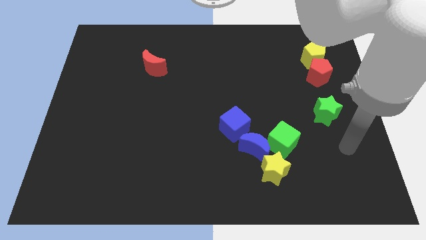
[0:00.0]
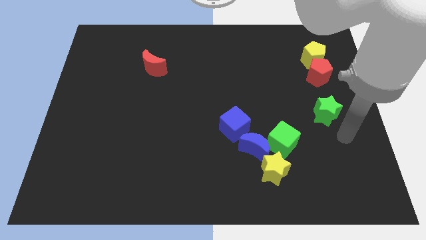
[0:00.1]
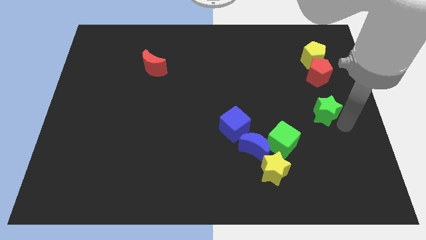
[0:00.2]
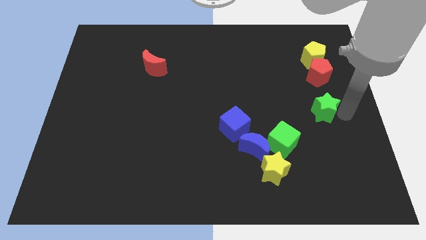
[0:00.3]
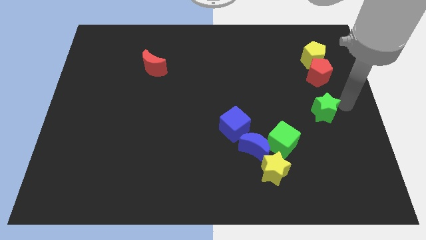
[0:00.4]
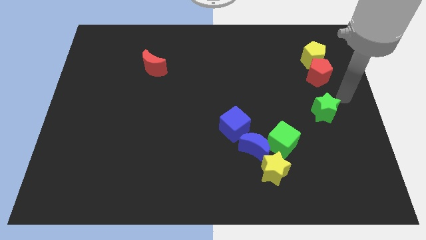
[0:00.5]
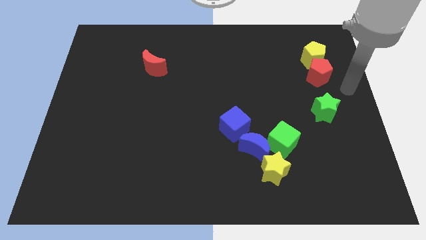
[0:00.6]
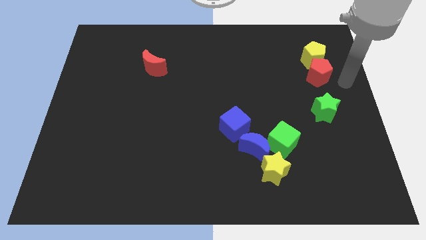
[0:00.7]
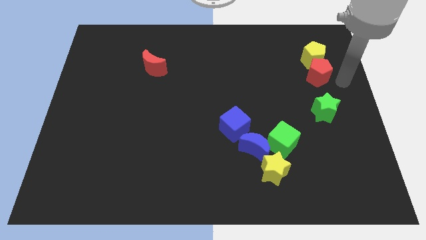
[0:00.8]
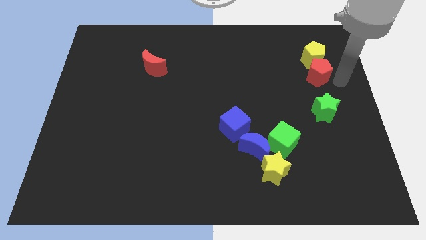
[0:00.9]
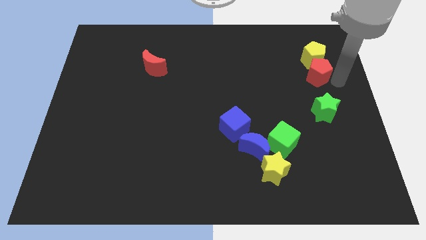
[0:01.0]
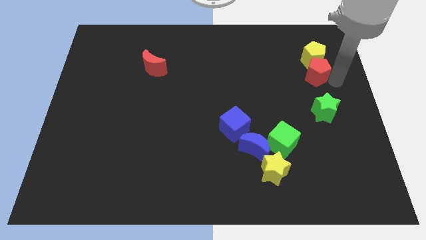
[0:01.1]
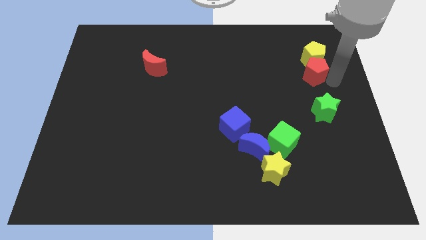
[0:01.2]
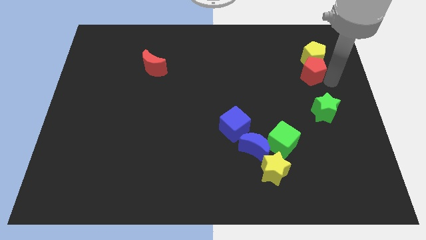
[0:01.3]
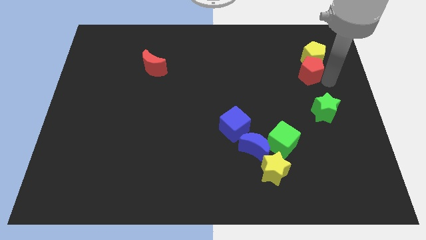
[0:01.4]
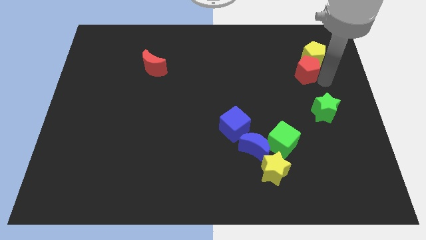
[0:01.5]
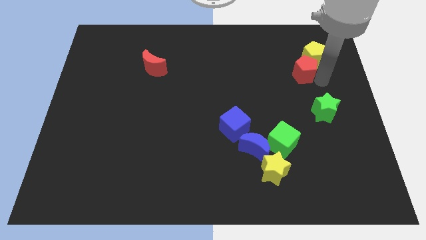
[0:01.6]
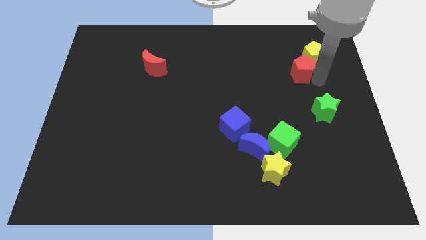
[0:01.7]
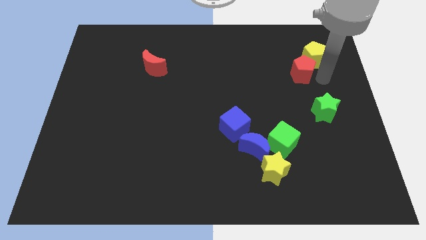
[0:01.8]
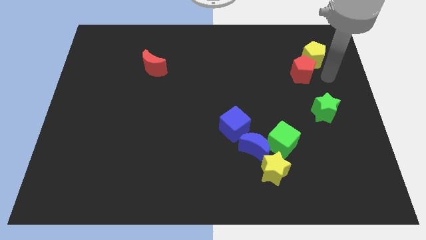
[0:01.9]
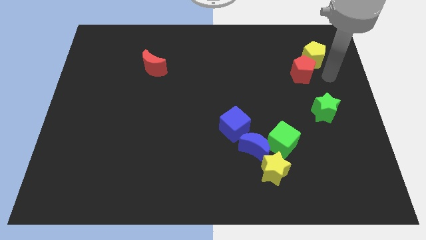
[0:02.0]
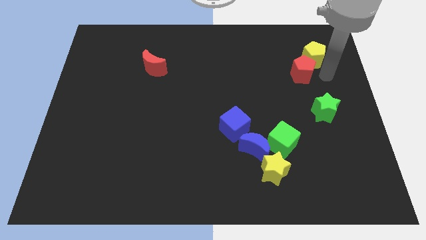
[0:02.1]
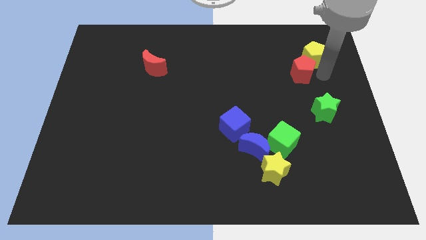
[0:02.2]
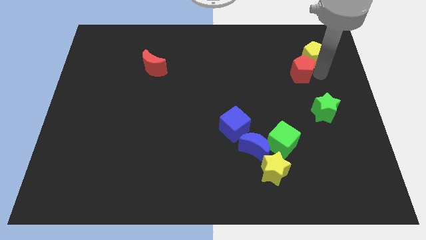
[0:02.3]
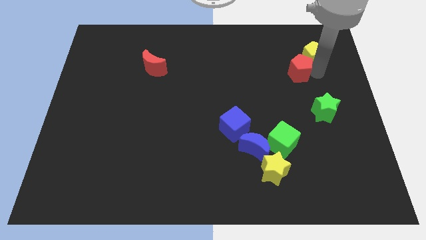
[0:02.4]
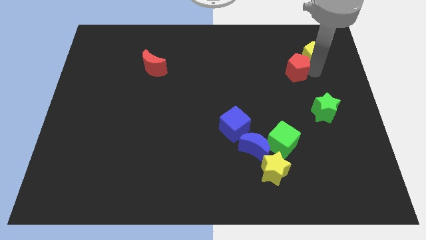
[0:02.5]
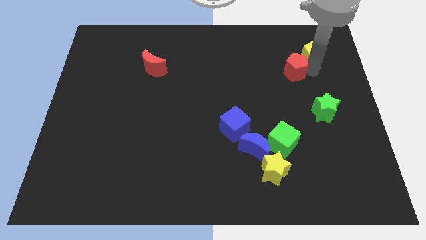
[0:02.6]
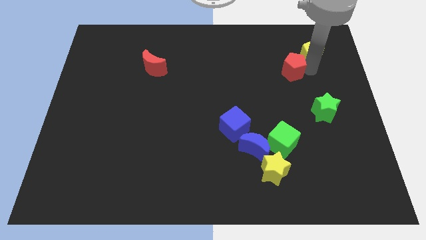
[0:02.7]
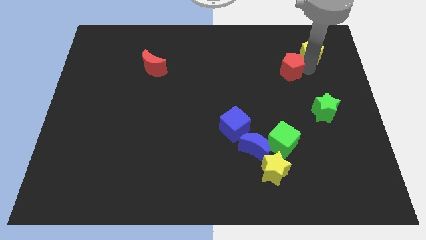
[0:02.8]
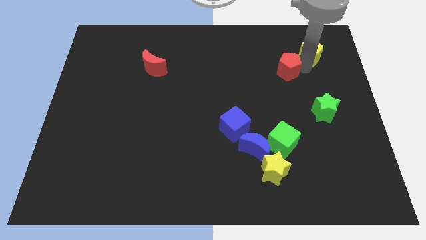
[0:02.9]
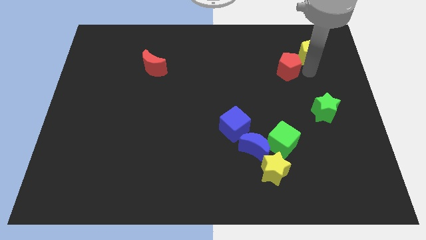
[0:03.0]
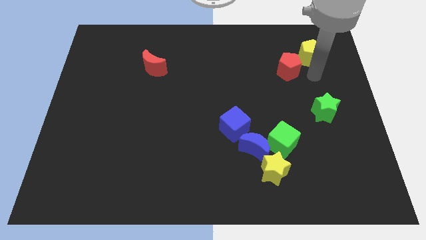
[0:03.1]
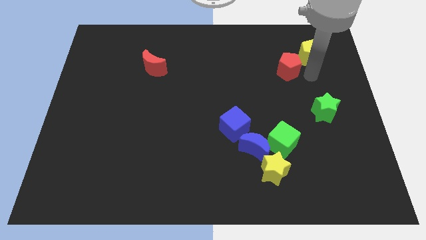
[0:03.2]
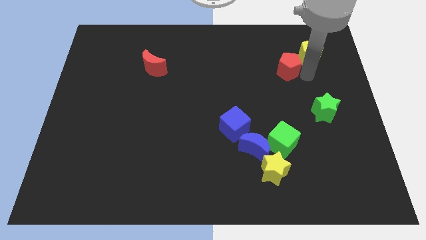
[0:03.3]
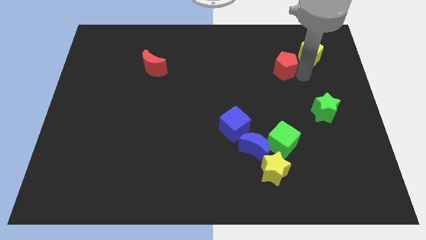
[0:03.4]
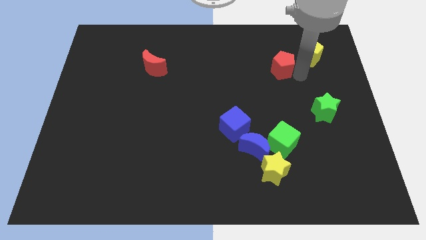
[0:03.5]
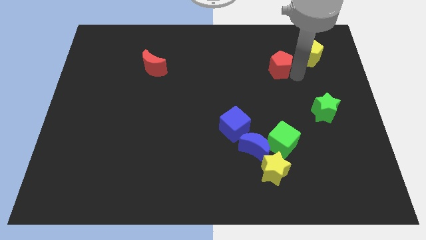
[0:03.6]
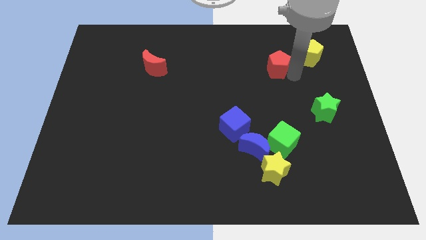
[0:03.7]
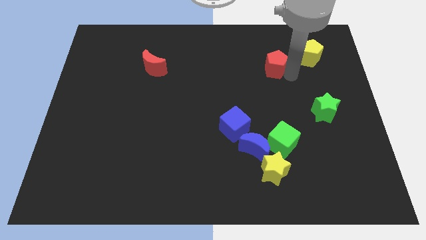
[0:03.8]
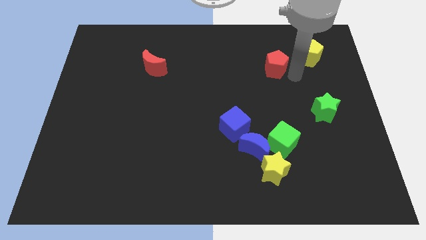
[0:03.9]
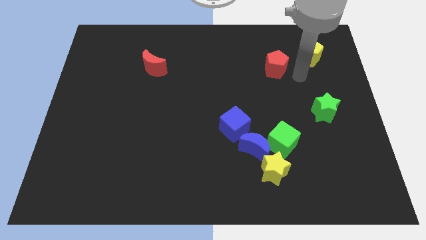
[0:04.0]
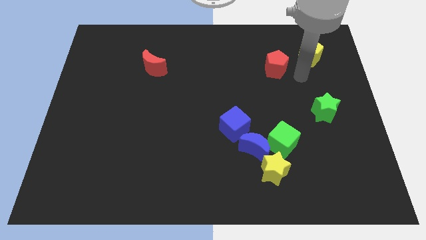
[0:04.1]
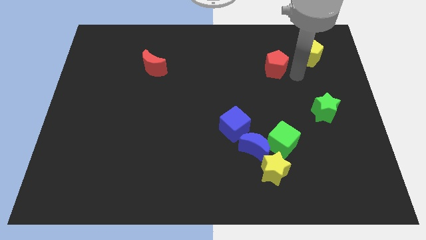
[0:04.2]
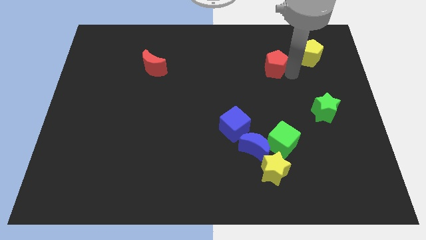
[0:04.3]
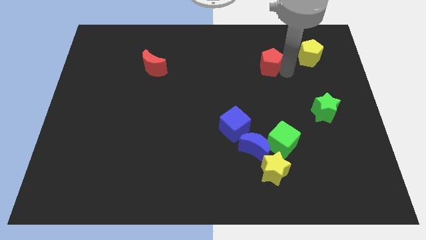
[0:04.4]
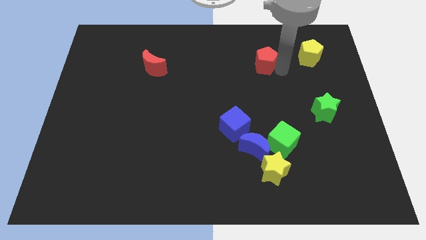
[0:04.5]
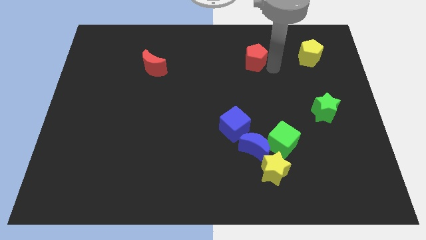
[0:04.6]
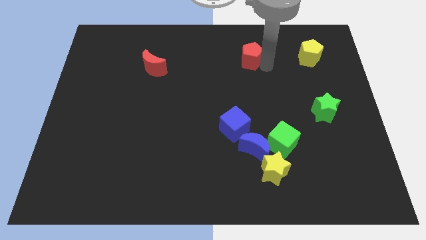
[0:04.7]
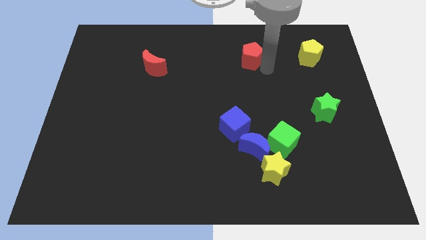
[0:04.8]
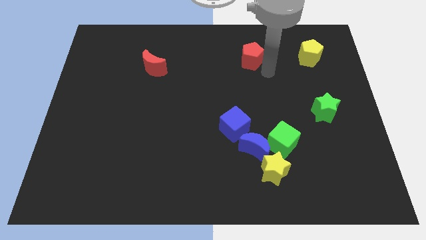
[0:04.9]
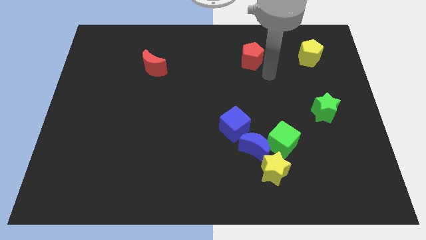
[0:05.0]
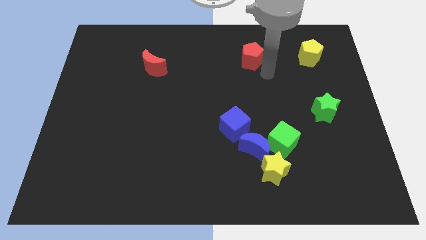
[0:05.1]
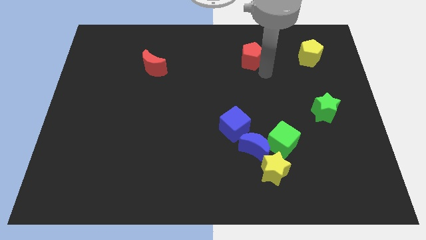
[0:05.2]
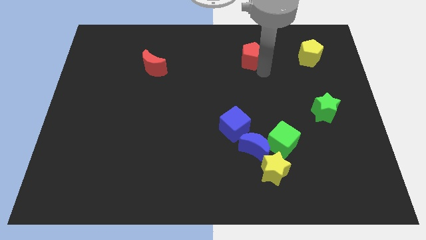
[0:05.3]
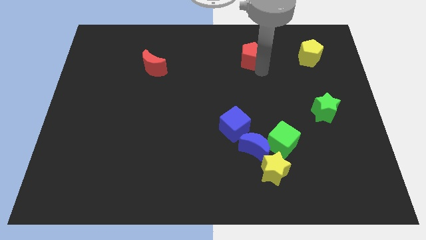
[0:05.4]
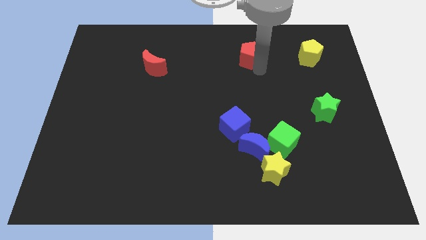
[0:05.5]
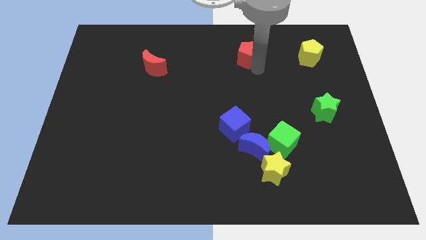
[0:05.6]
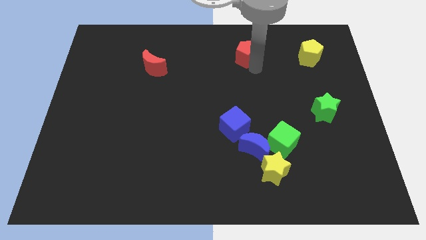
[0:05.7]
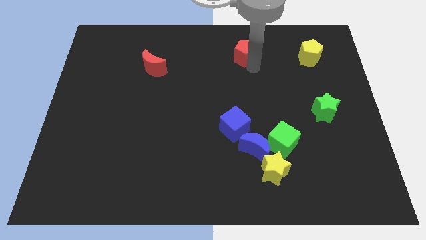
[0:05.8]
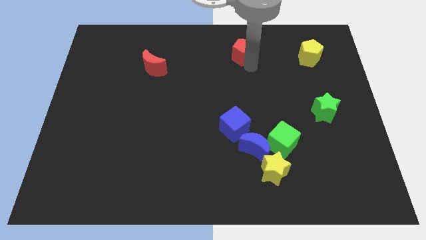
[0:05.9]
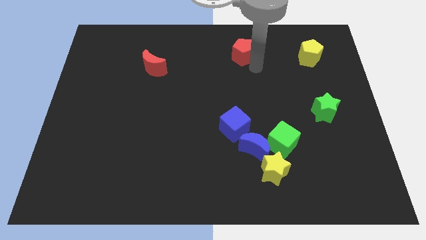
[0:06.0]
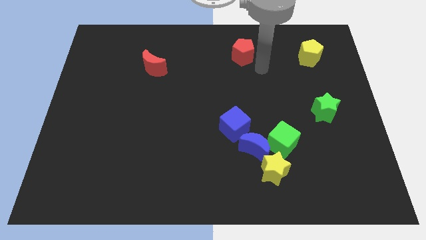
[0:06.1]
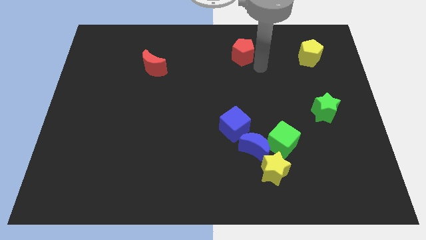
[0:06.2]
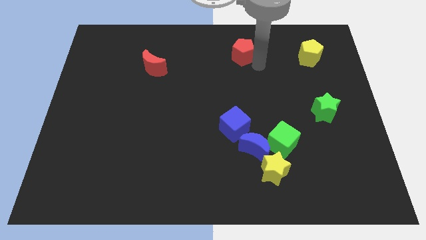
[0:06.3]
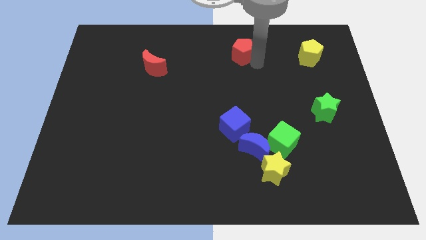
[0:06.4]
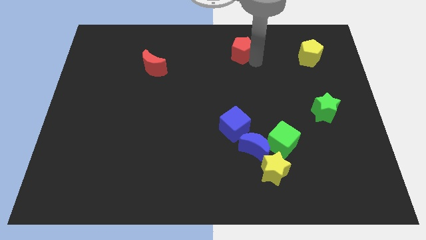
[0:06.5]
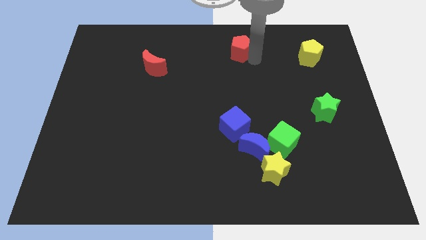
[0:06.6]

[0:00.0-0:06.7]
push the red pentagon to the top

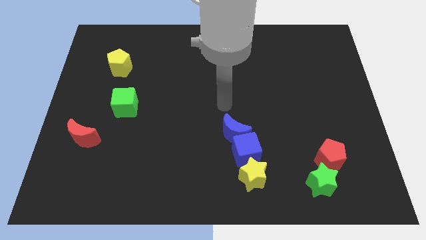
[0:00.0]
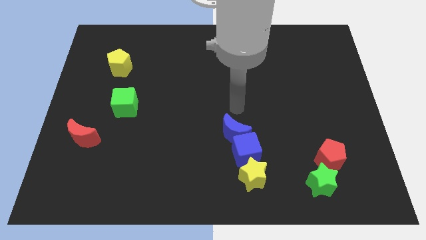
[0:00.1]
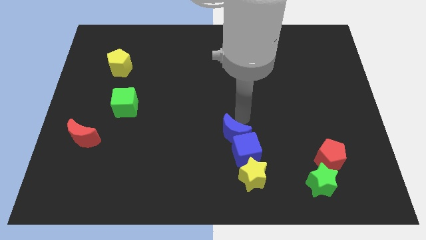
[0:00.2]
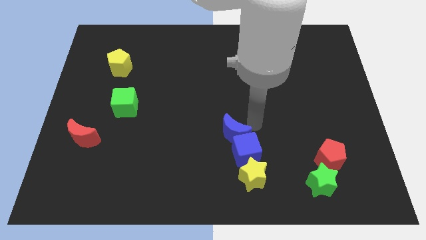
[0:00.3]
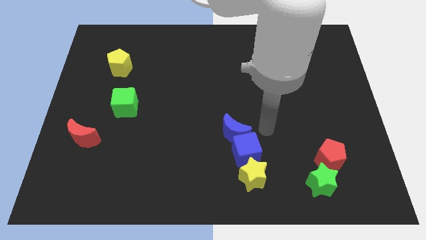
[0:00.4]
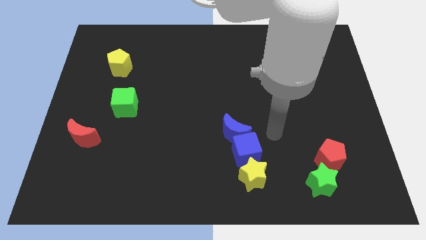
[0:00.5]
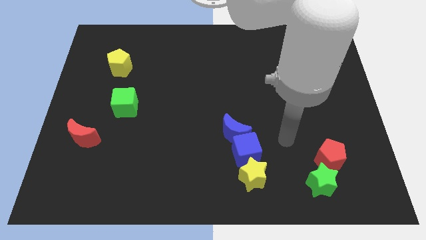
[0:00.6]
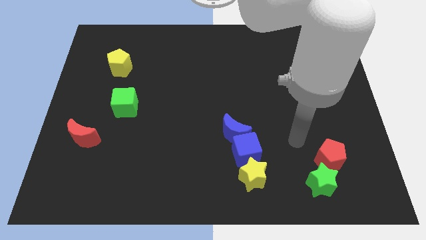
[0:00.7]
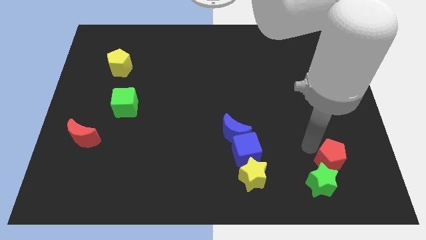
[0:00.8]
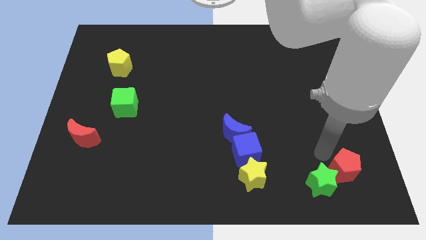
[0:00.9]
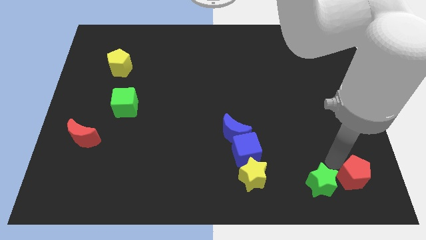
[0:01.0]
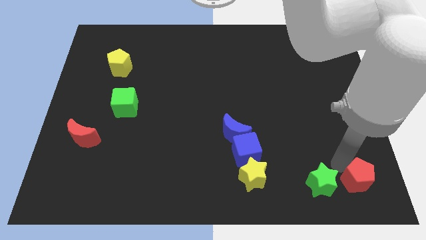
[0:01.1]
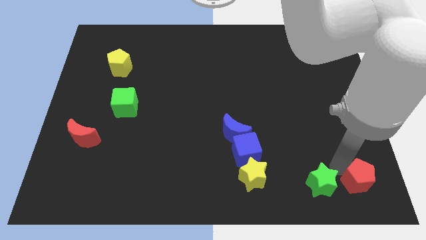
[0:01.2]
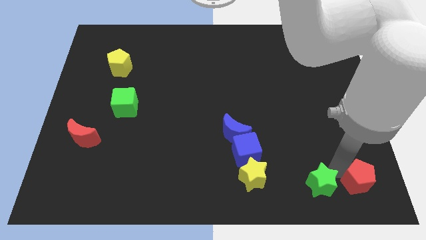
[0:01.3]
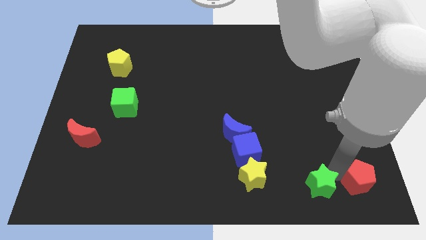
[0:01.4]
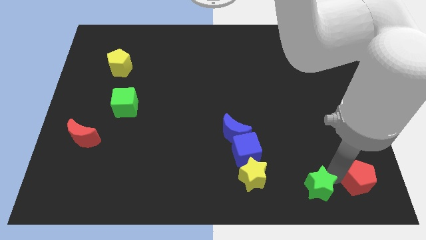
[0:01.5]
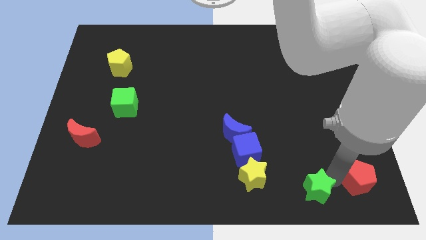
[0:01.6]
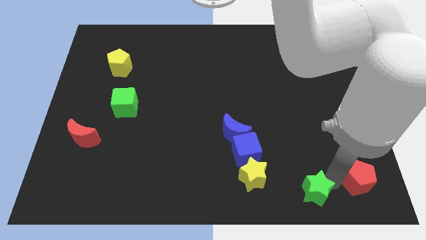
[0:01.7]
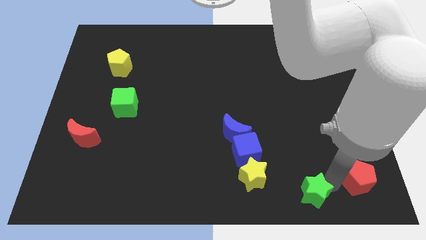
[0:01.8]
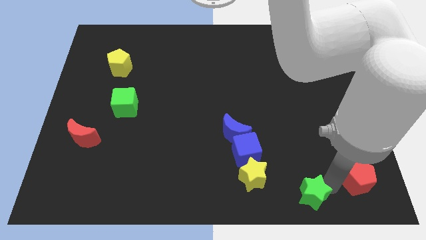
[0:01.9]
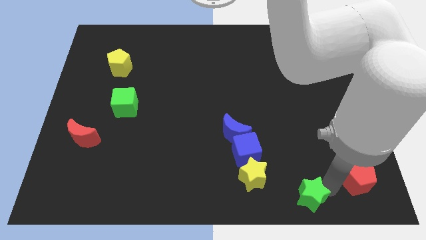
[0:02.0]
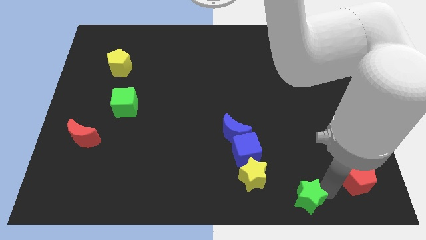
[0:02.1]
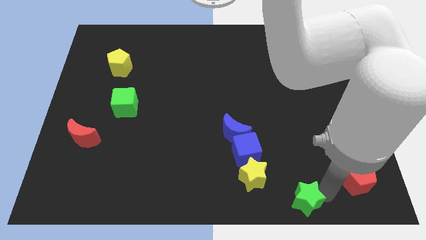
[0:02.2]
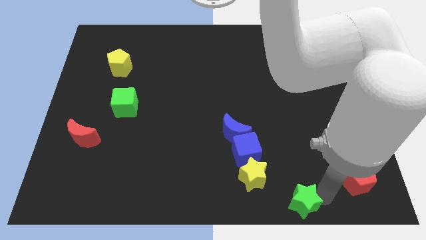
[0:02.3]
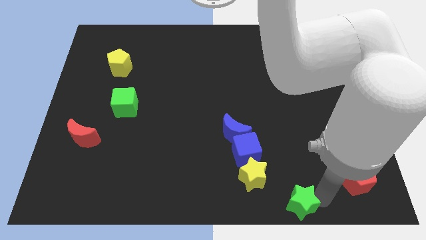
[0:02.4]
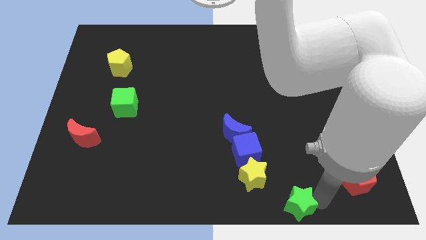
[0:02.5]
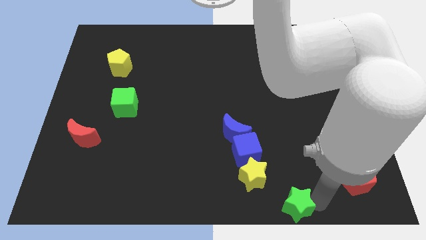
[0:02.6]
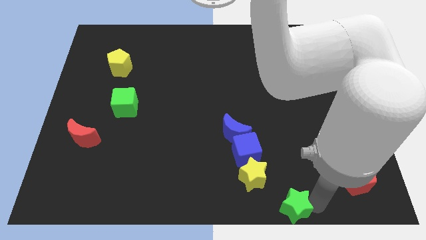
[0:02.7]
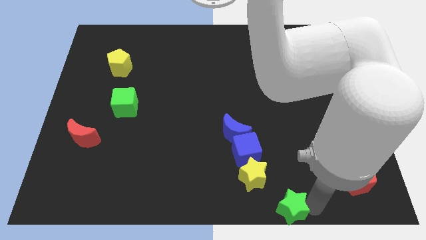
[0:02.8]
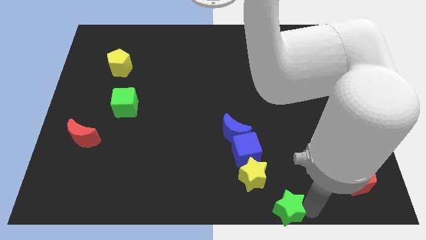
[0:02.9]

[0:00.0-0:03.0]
move the green star to the bottom
